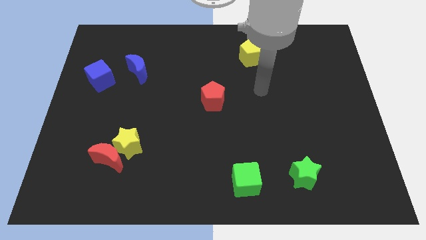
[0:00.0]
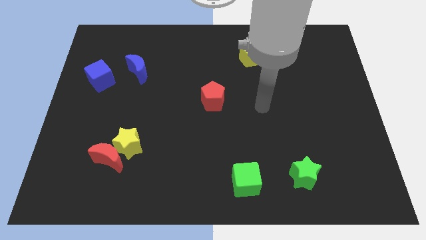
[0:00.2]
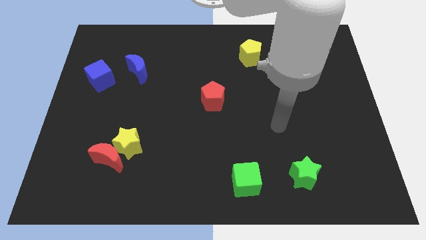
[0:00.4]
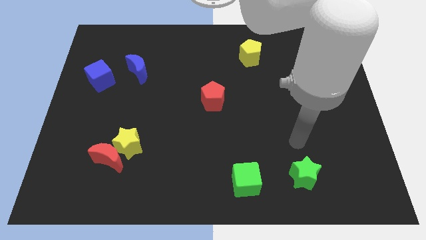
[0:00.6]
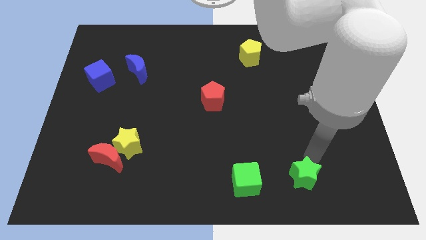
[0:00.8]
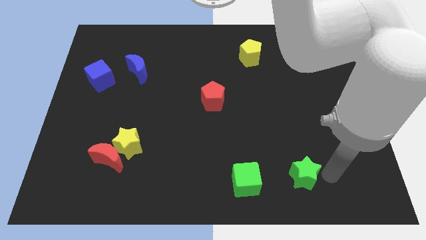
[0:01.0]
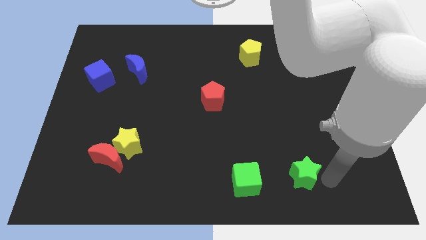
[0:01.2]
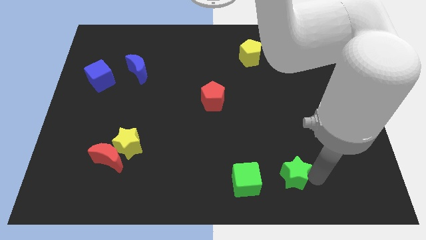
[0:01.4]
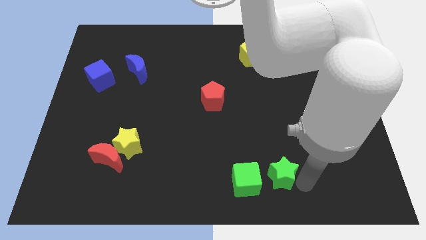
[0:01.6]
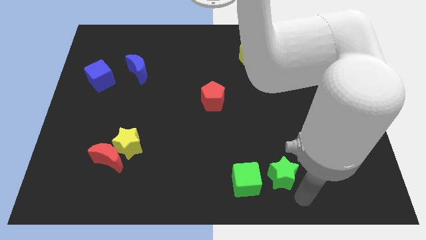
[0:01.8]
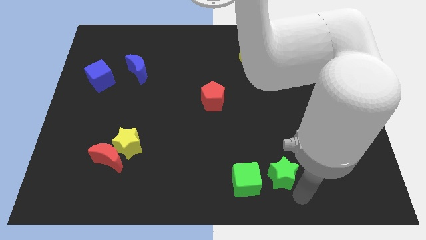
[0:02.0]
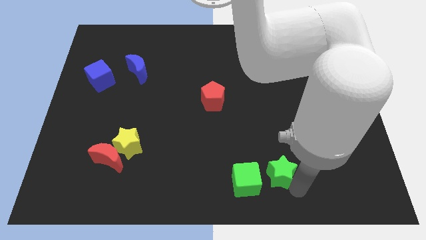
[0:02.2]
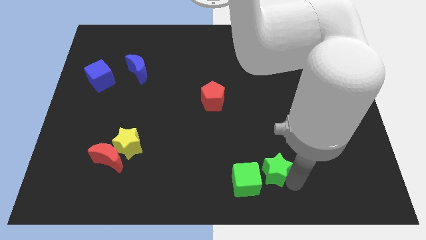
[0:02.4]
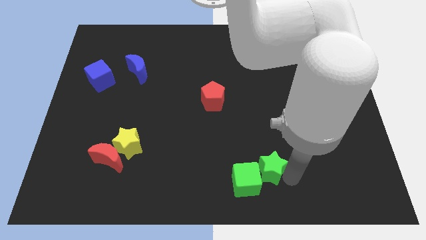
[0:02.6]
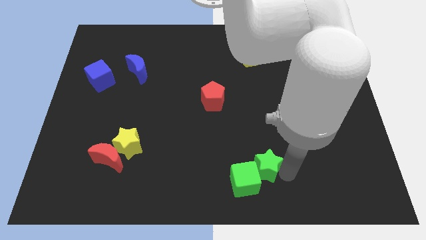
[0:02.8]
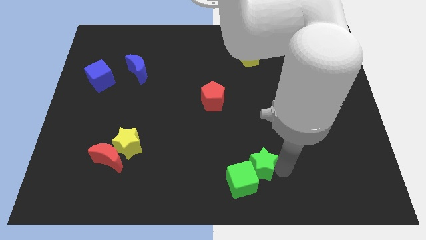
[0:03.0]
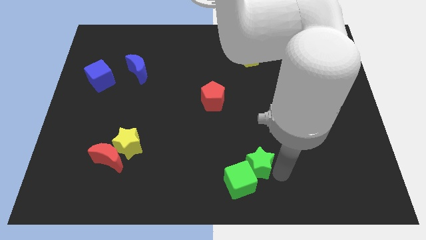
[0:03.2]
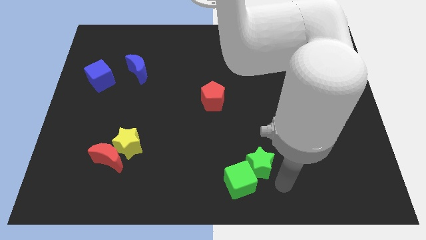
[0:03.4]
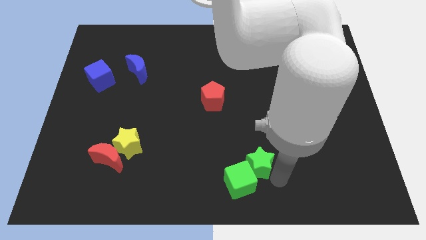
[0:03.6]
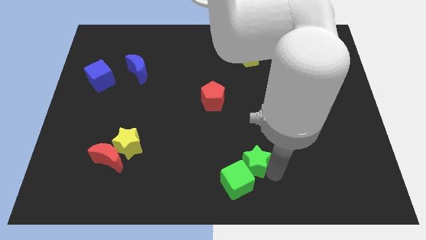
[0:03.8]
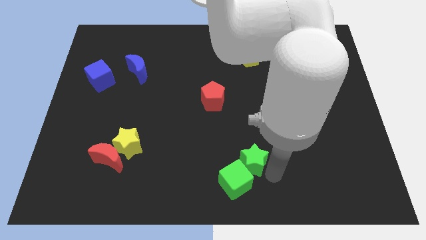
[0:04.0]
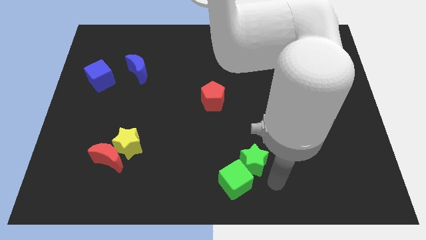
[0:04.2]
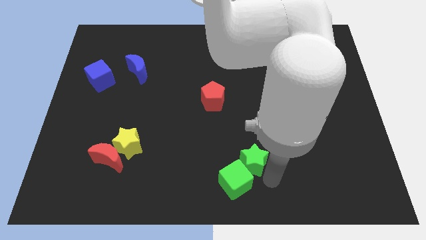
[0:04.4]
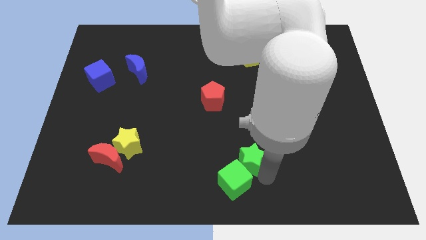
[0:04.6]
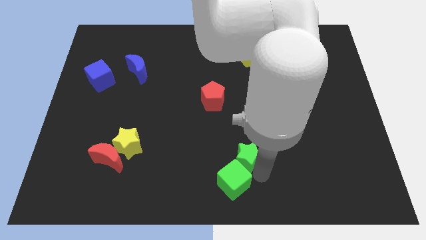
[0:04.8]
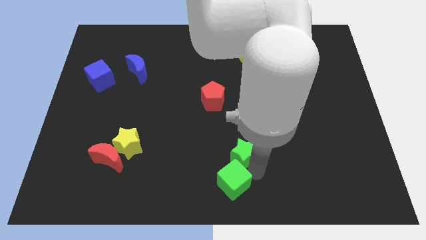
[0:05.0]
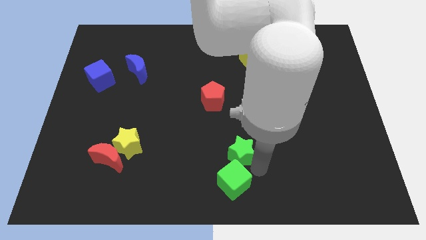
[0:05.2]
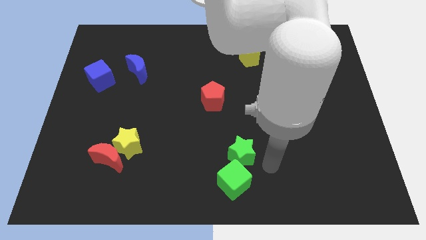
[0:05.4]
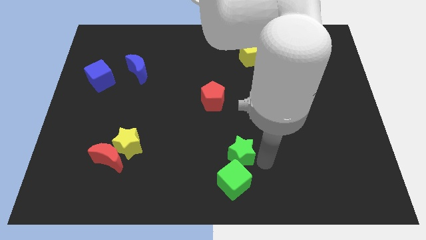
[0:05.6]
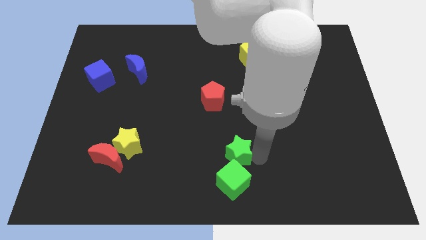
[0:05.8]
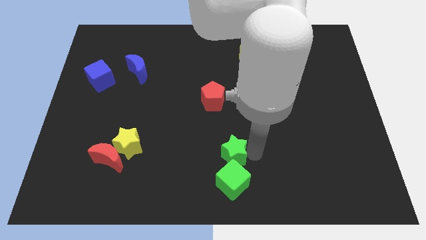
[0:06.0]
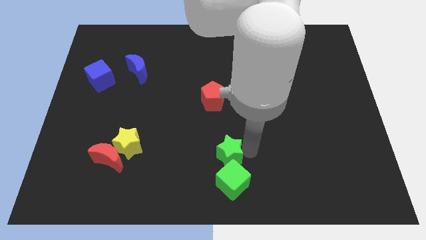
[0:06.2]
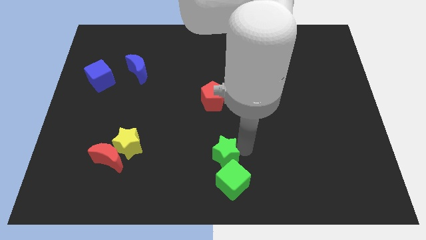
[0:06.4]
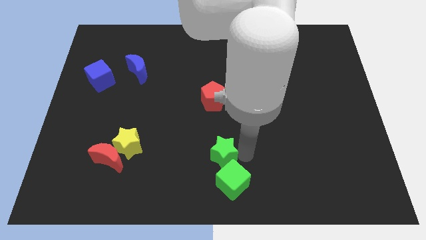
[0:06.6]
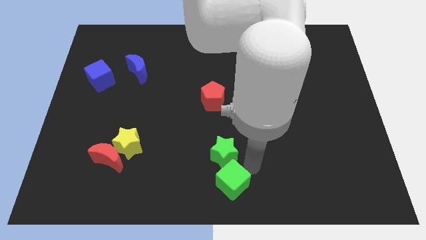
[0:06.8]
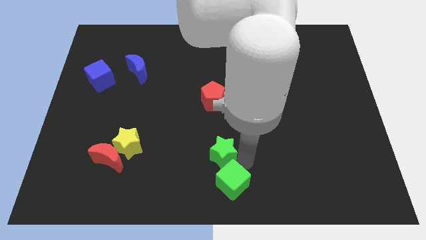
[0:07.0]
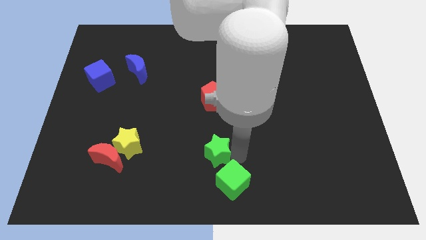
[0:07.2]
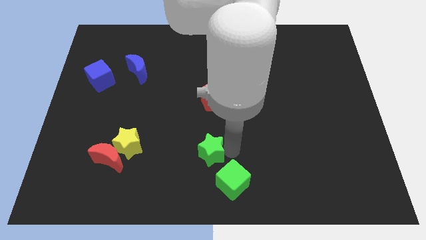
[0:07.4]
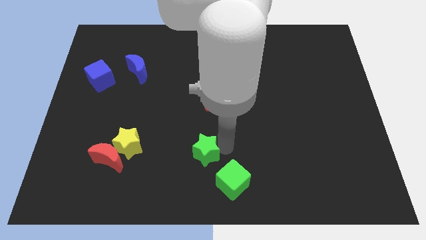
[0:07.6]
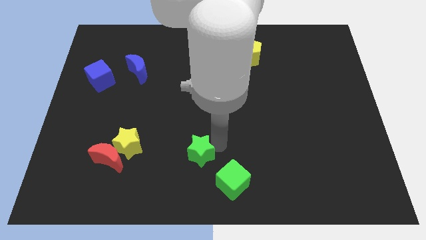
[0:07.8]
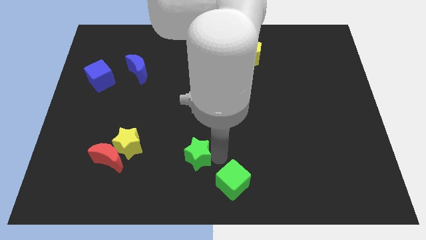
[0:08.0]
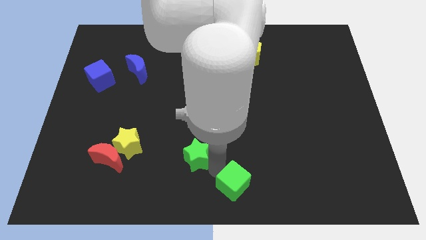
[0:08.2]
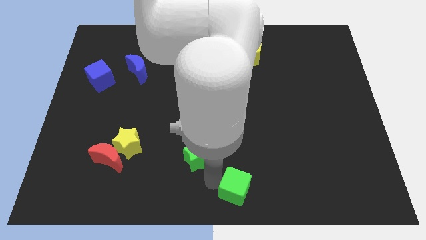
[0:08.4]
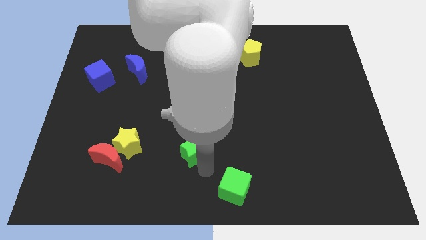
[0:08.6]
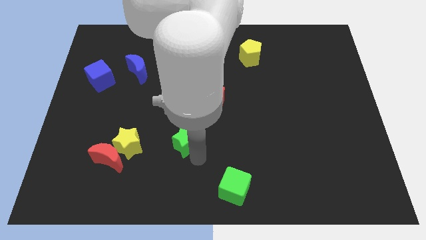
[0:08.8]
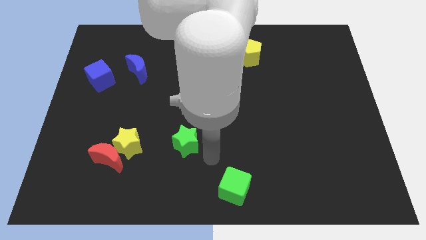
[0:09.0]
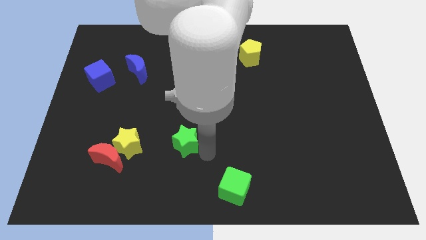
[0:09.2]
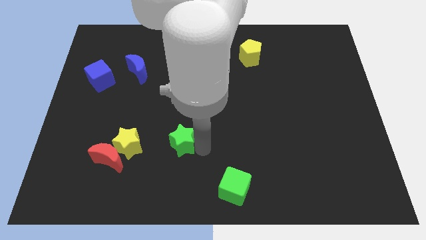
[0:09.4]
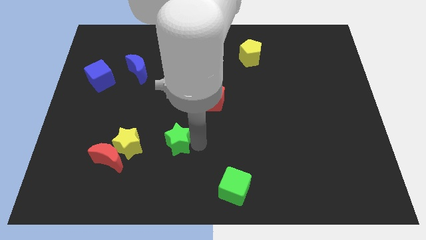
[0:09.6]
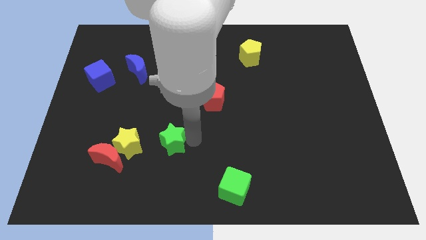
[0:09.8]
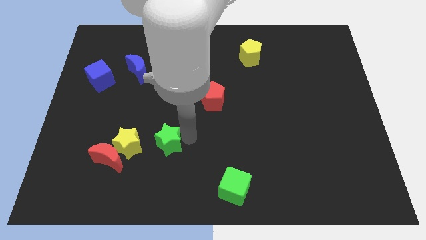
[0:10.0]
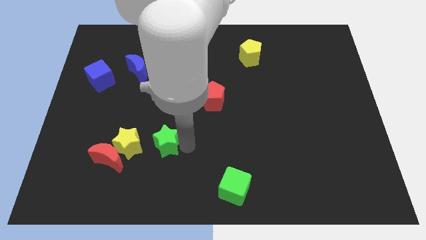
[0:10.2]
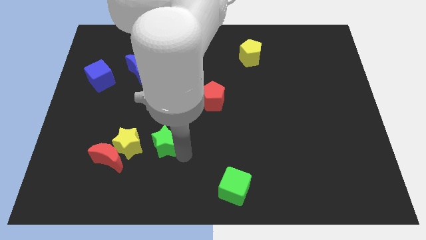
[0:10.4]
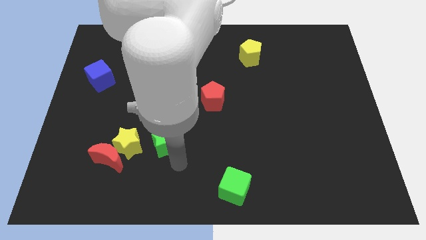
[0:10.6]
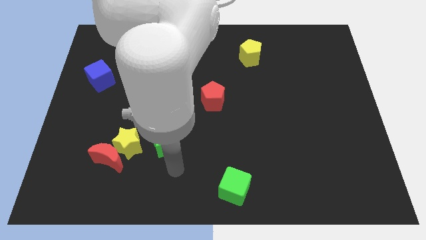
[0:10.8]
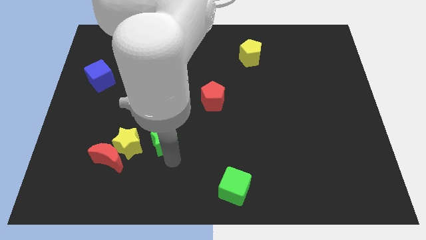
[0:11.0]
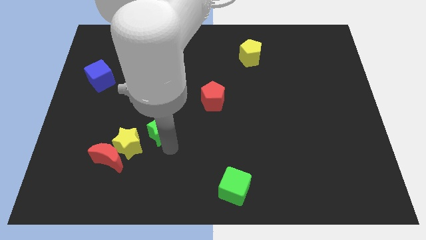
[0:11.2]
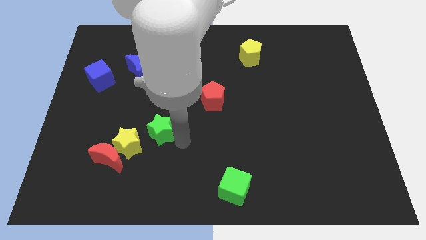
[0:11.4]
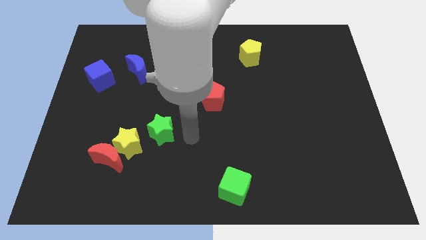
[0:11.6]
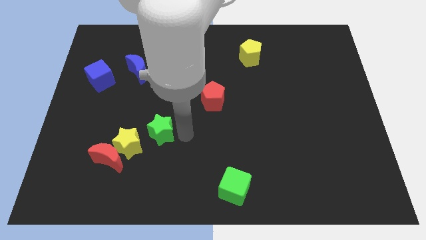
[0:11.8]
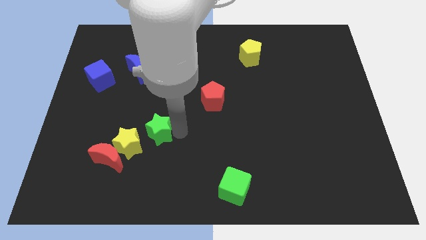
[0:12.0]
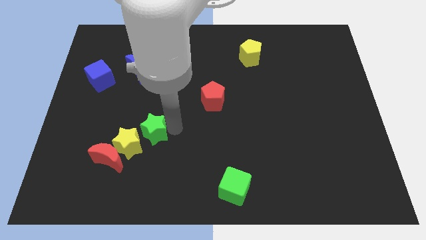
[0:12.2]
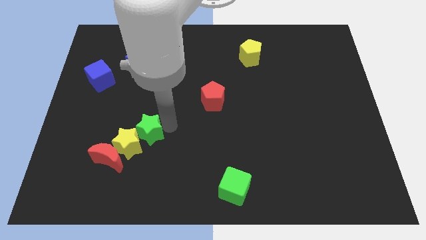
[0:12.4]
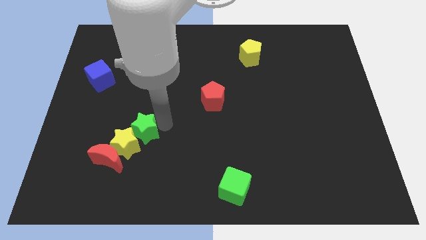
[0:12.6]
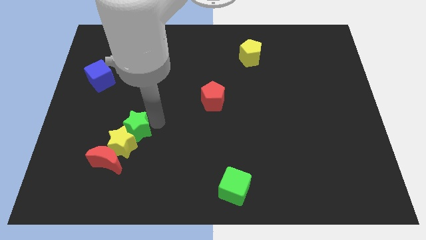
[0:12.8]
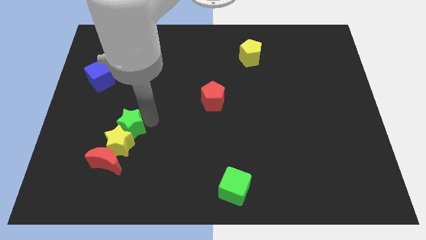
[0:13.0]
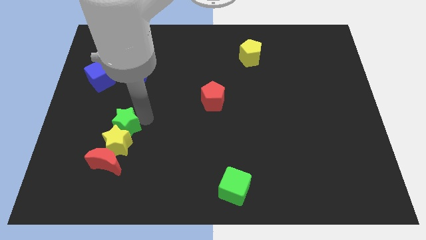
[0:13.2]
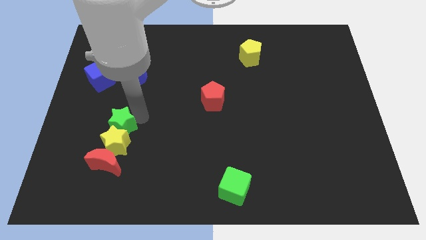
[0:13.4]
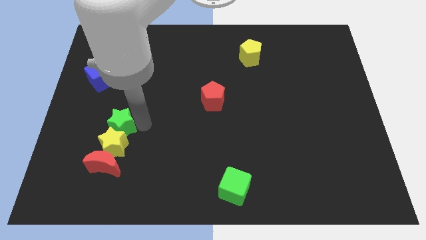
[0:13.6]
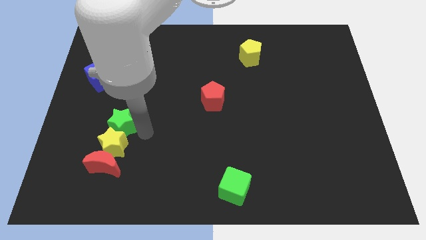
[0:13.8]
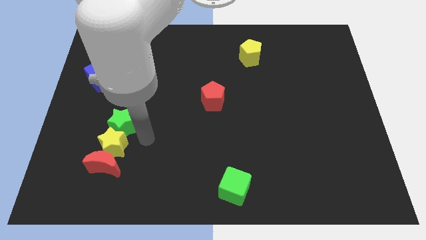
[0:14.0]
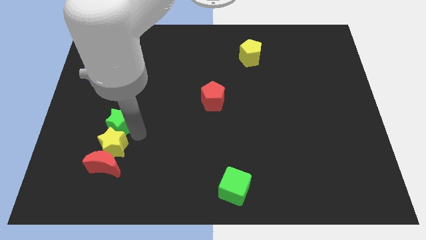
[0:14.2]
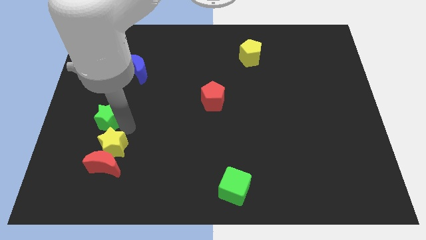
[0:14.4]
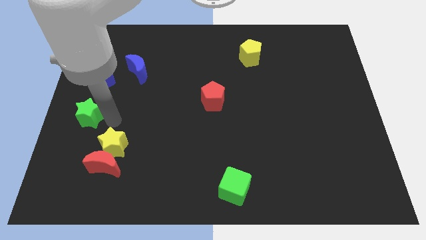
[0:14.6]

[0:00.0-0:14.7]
put the green star to the left side
